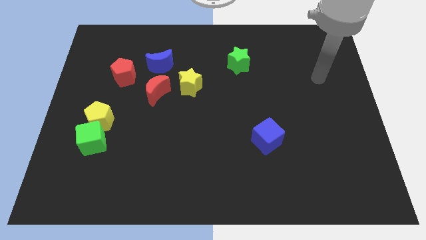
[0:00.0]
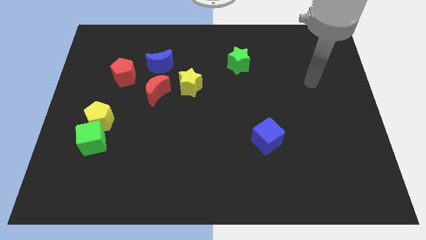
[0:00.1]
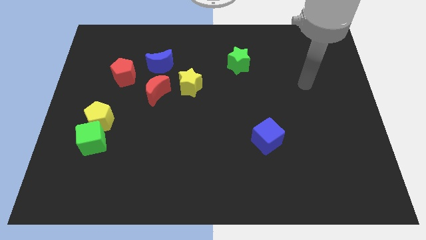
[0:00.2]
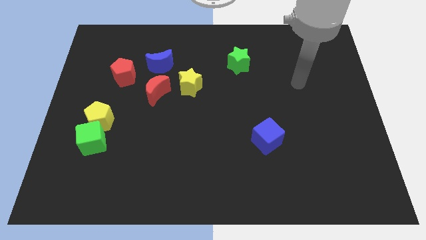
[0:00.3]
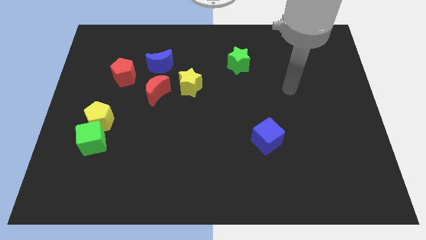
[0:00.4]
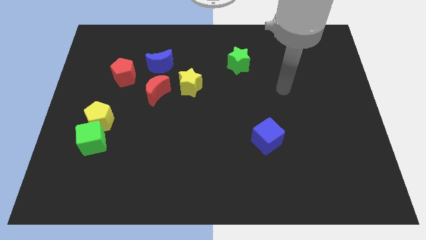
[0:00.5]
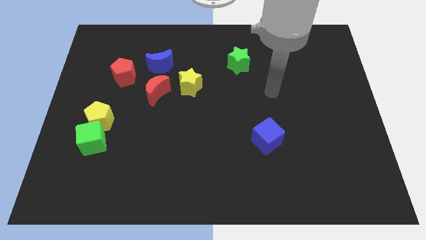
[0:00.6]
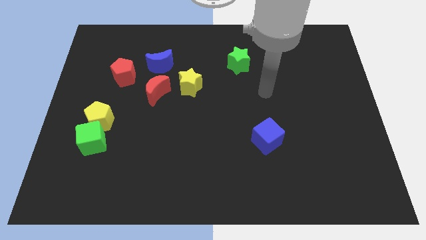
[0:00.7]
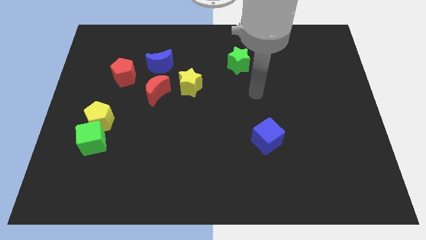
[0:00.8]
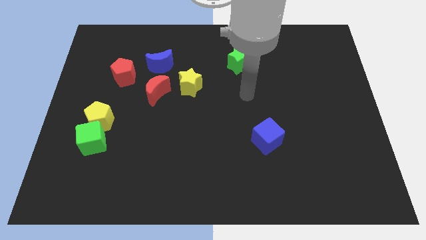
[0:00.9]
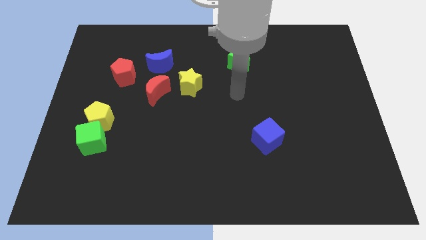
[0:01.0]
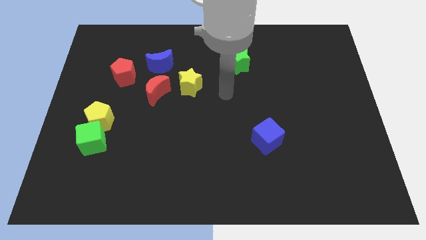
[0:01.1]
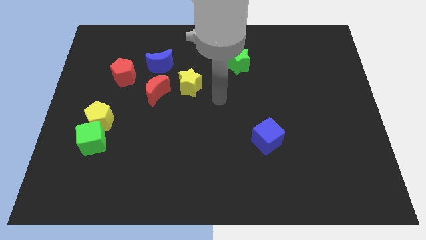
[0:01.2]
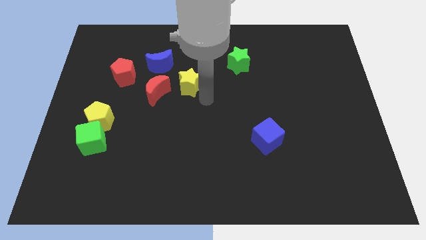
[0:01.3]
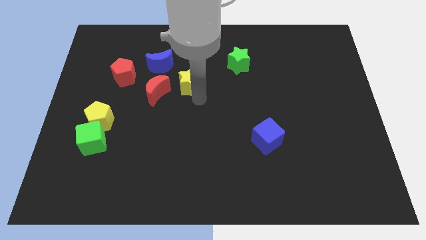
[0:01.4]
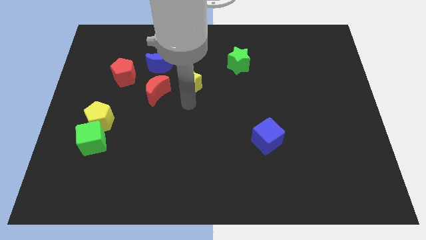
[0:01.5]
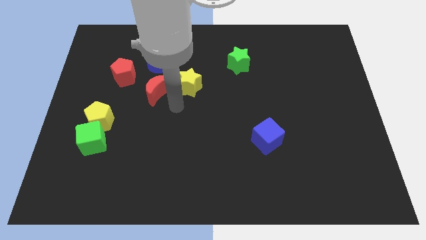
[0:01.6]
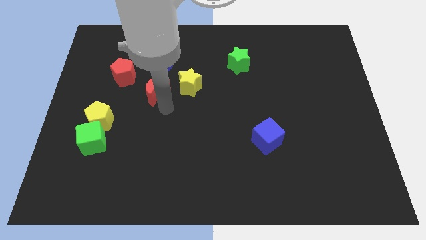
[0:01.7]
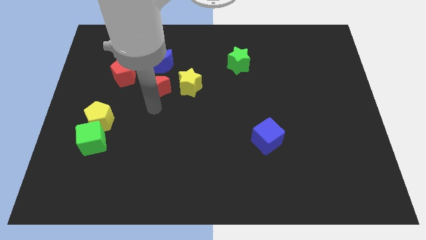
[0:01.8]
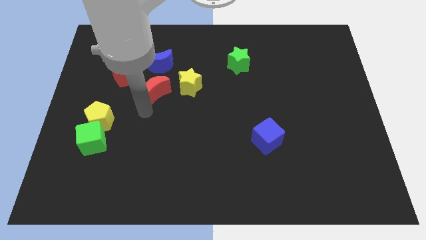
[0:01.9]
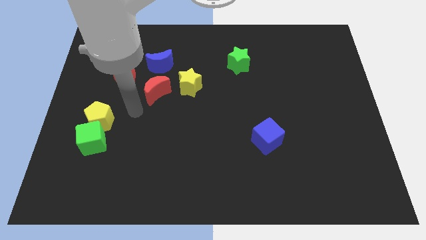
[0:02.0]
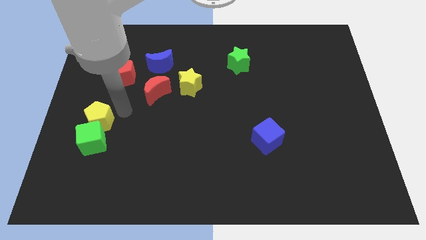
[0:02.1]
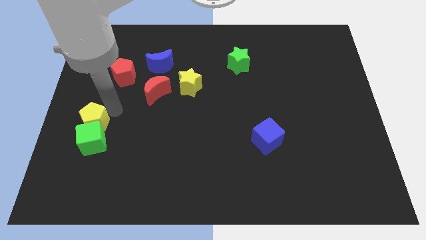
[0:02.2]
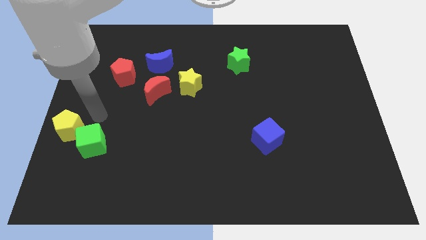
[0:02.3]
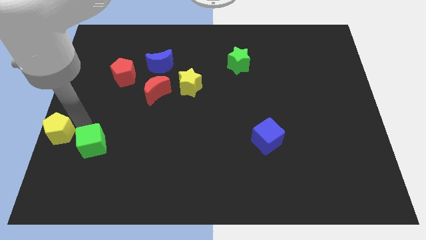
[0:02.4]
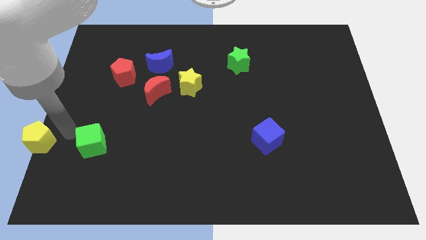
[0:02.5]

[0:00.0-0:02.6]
pull the green cube apart from the yellow pentagon

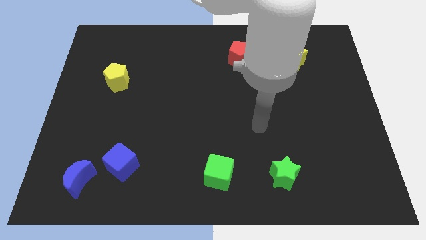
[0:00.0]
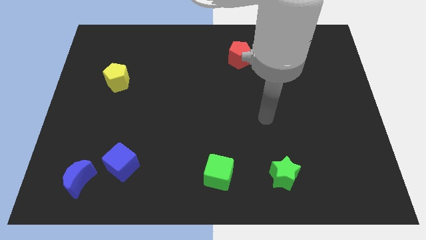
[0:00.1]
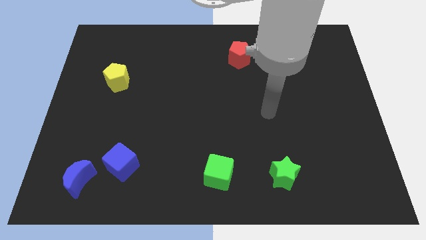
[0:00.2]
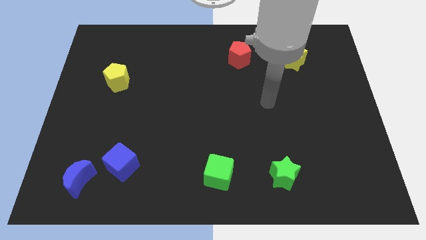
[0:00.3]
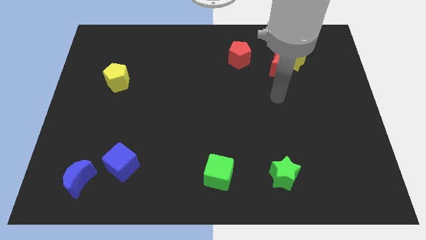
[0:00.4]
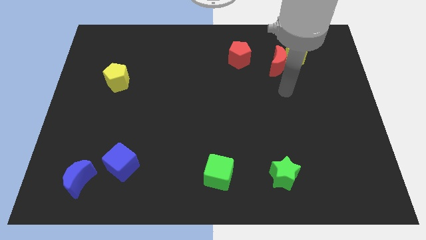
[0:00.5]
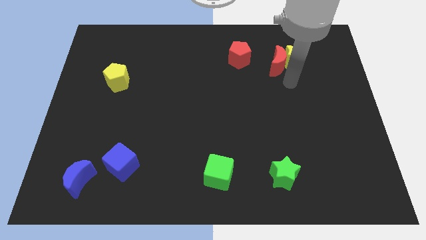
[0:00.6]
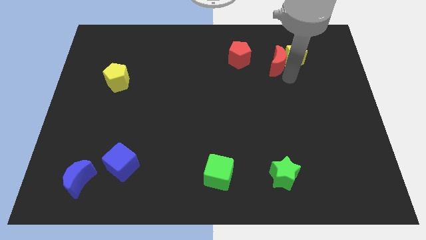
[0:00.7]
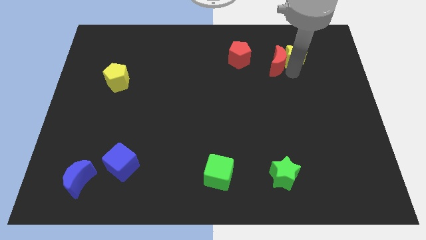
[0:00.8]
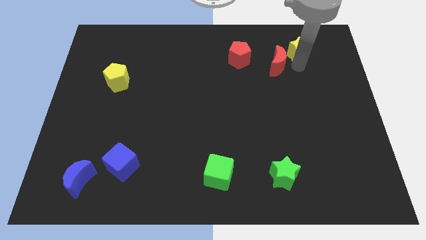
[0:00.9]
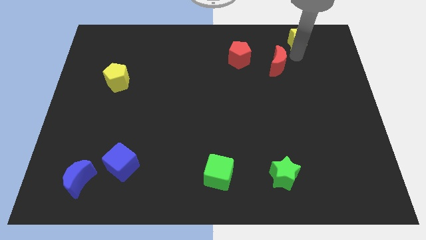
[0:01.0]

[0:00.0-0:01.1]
pull the red moon apart from the yellow star

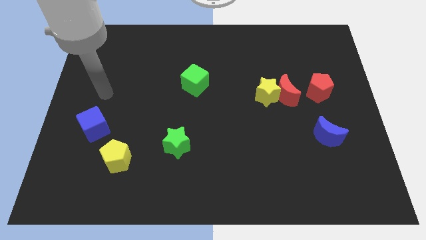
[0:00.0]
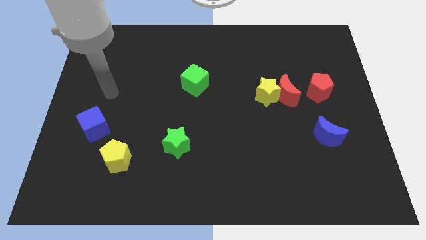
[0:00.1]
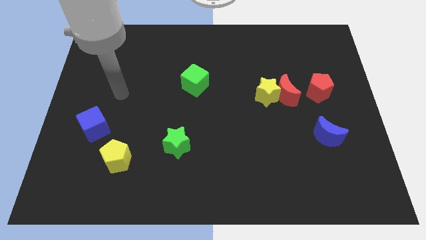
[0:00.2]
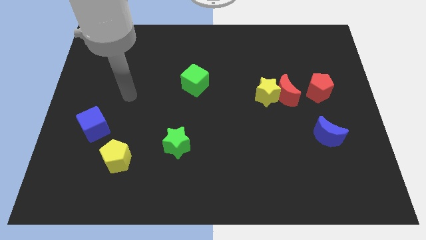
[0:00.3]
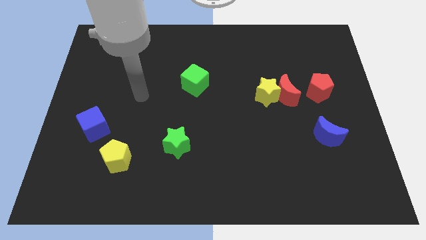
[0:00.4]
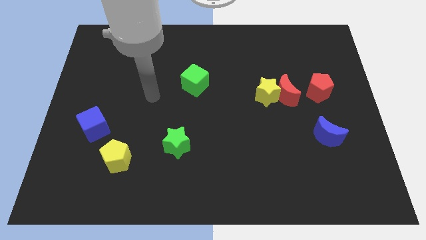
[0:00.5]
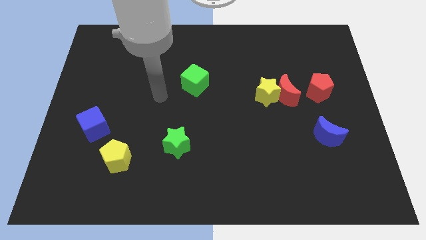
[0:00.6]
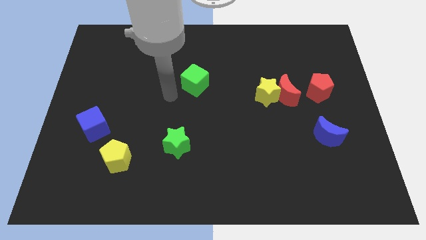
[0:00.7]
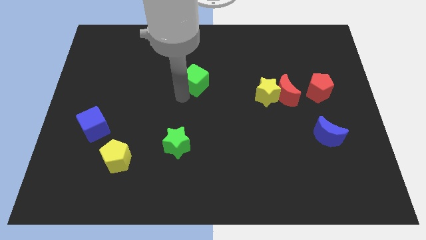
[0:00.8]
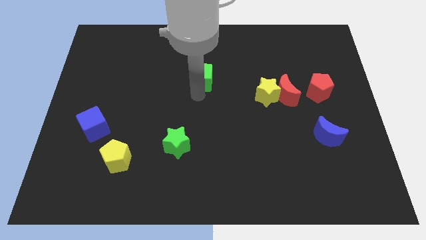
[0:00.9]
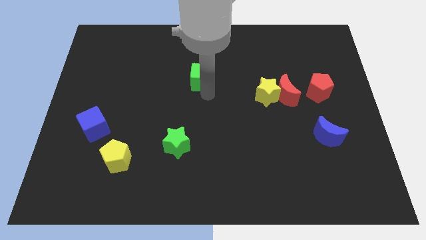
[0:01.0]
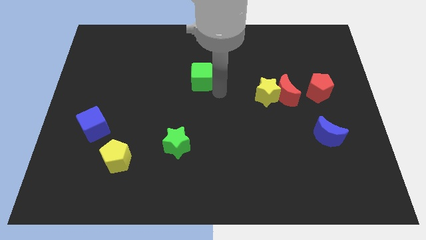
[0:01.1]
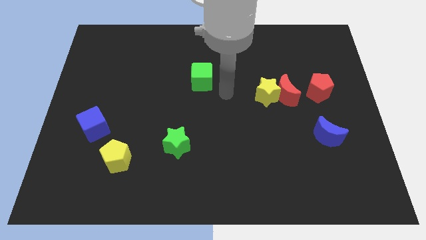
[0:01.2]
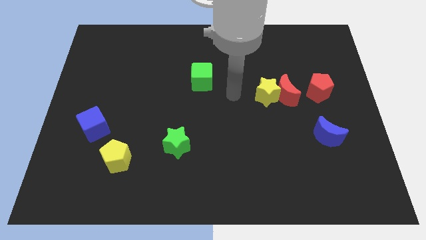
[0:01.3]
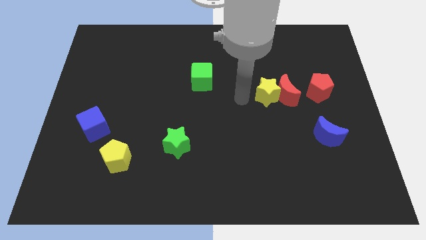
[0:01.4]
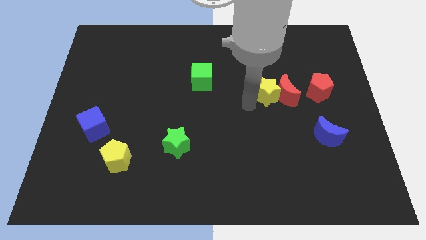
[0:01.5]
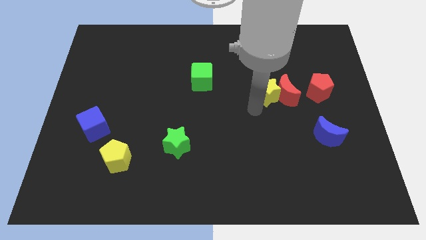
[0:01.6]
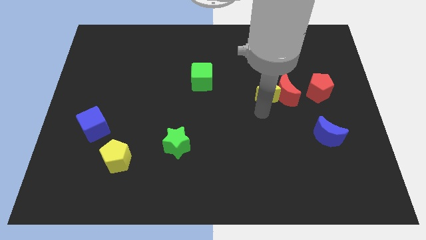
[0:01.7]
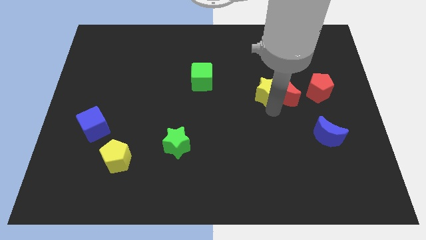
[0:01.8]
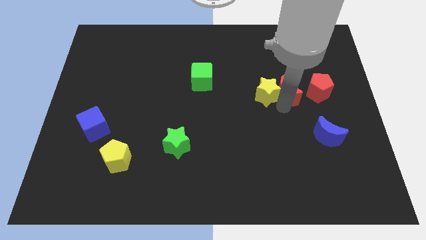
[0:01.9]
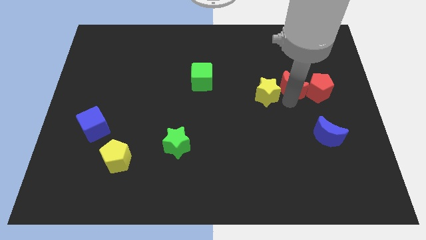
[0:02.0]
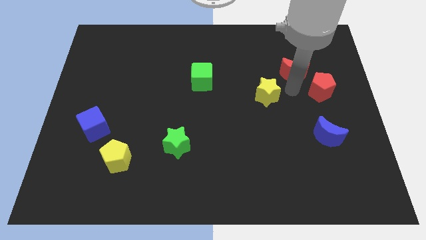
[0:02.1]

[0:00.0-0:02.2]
pull the yellow star apart from the red moon

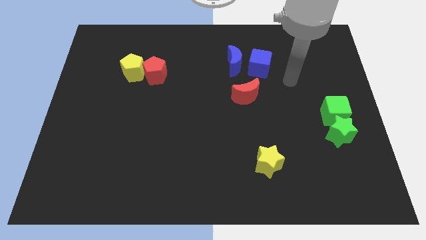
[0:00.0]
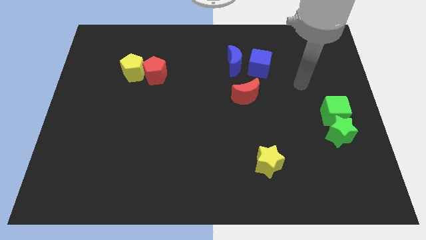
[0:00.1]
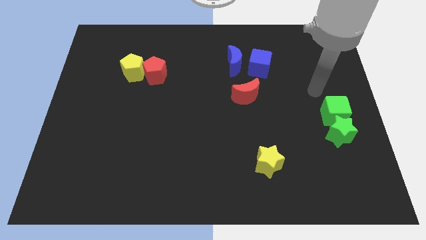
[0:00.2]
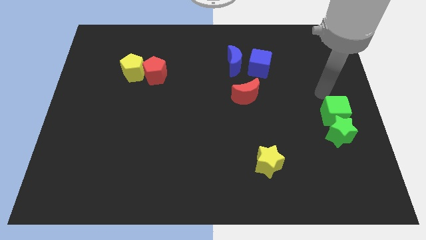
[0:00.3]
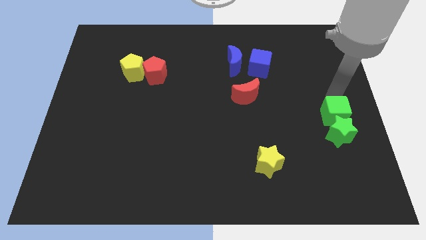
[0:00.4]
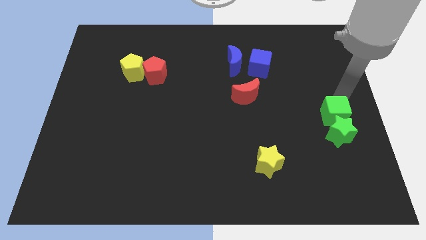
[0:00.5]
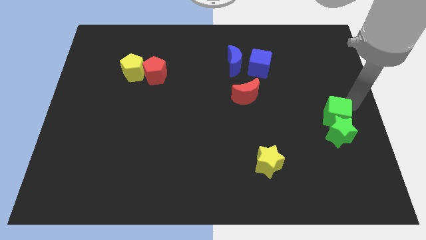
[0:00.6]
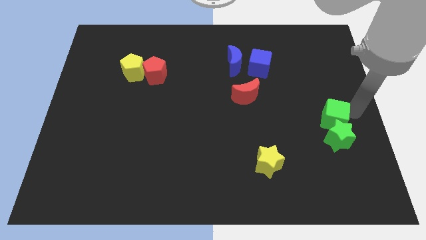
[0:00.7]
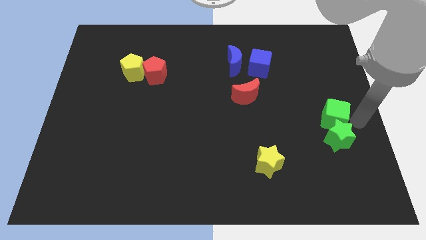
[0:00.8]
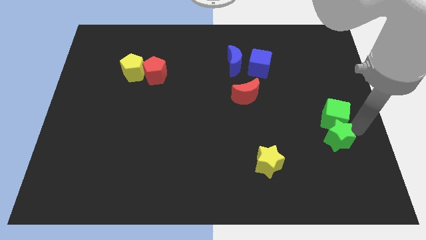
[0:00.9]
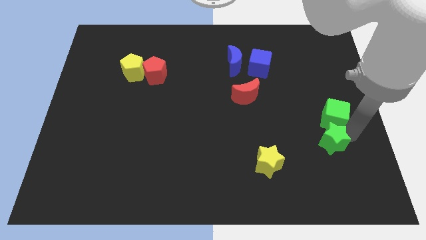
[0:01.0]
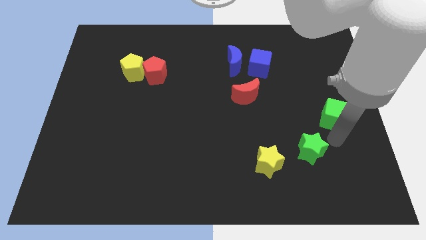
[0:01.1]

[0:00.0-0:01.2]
move the green cube away from the green star

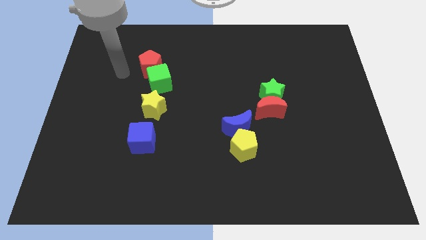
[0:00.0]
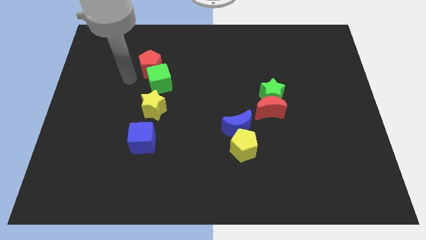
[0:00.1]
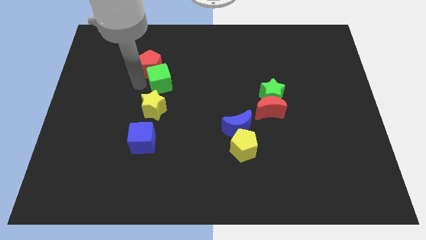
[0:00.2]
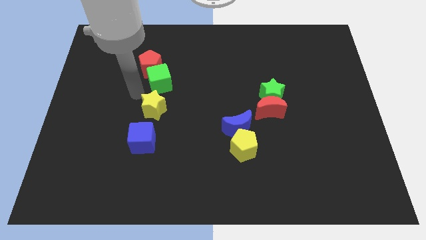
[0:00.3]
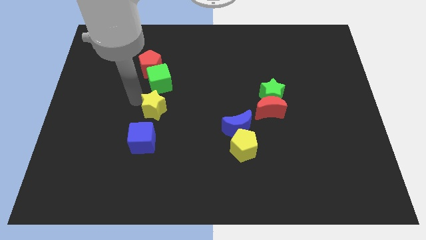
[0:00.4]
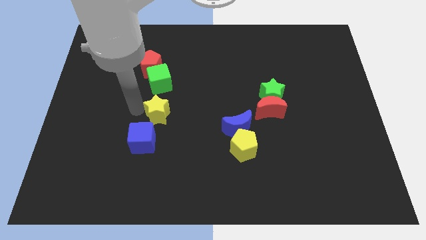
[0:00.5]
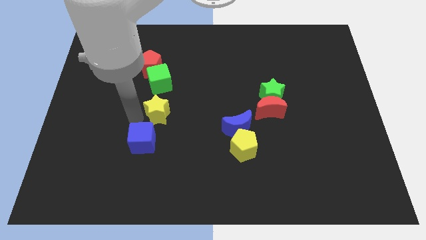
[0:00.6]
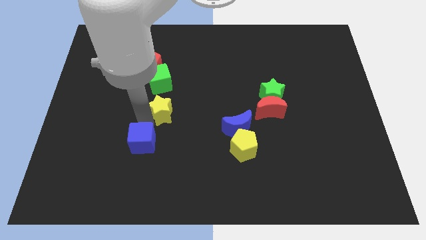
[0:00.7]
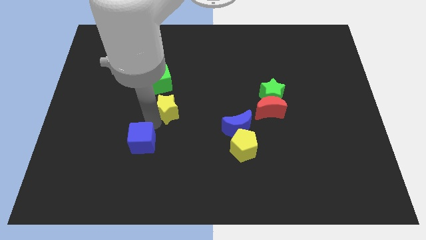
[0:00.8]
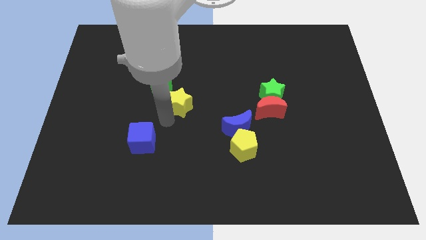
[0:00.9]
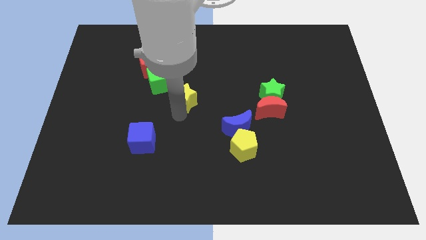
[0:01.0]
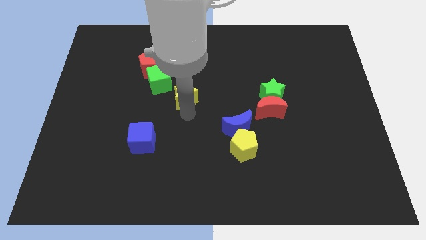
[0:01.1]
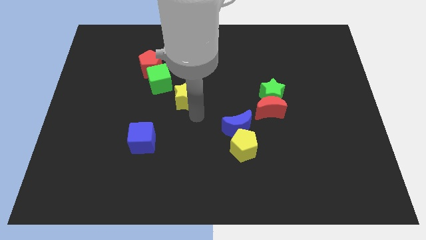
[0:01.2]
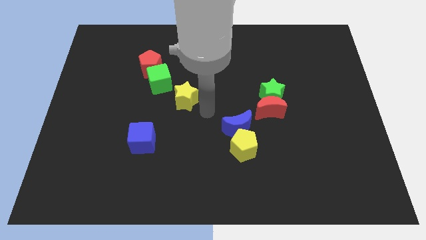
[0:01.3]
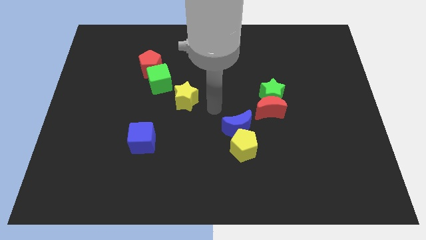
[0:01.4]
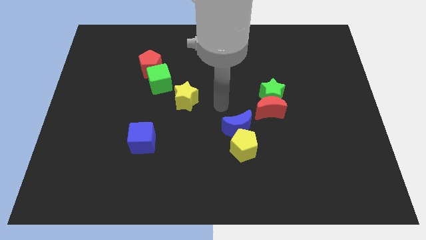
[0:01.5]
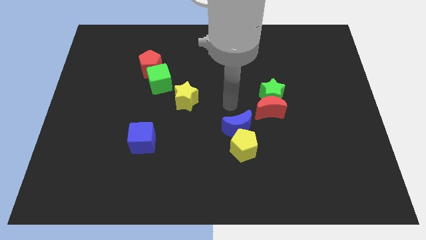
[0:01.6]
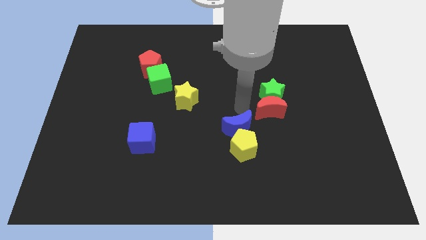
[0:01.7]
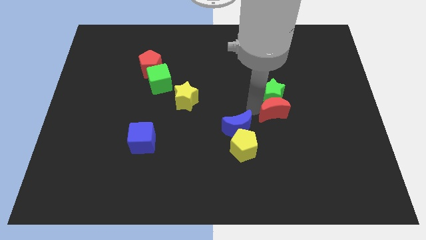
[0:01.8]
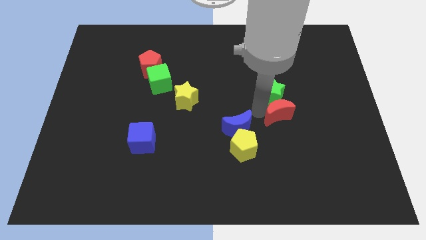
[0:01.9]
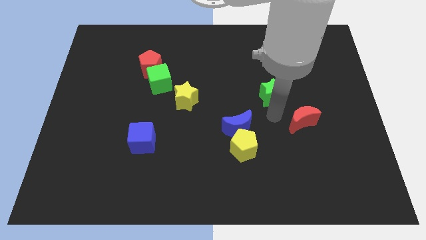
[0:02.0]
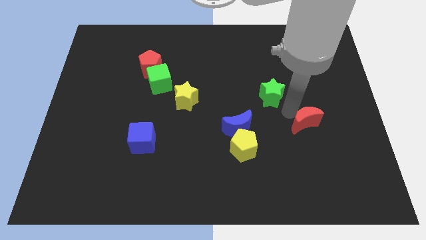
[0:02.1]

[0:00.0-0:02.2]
move the green star away from the red moon
